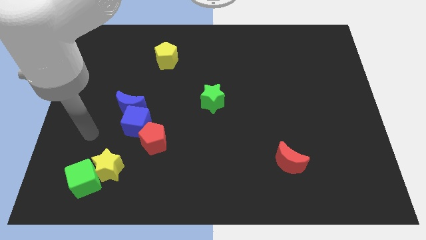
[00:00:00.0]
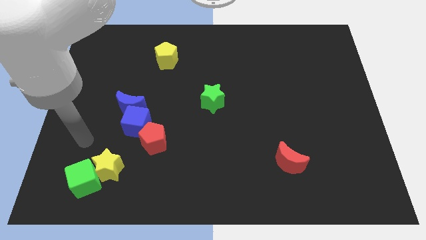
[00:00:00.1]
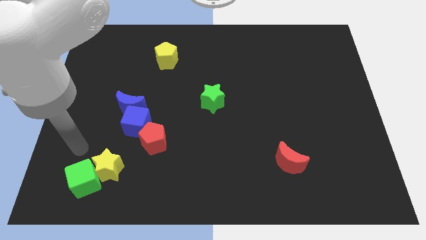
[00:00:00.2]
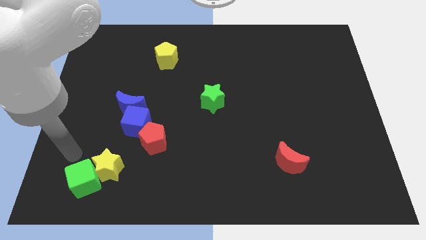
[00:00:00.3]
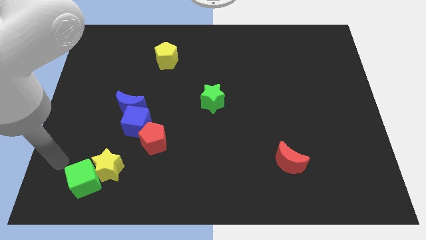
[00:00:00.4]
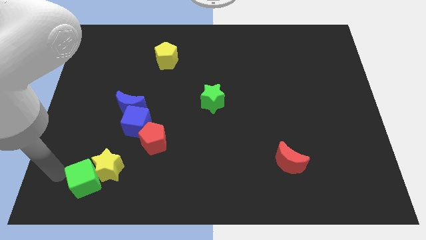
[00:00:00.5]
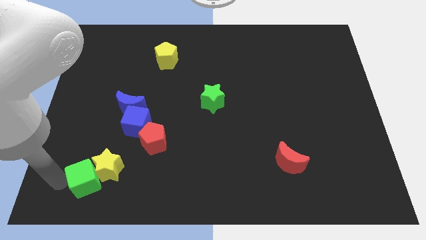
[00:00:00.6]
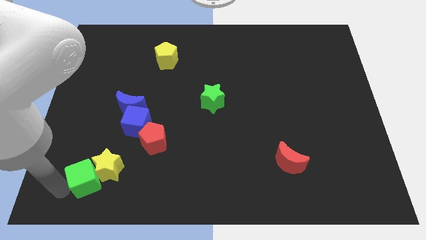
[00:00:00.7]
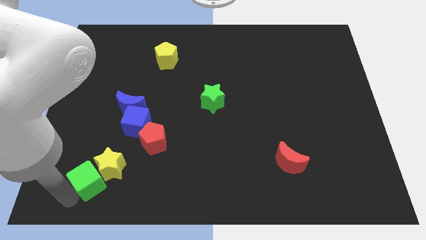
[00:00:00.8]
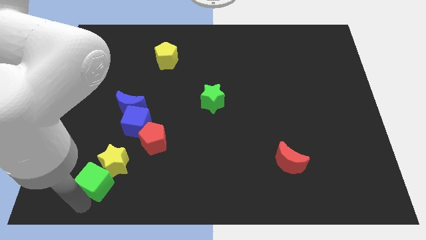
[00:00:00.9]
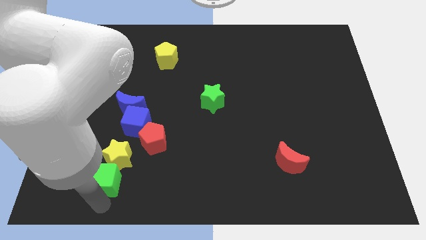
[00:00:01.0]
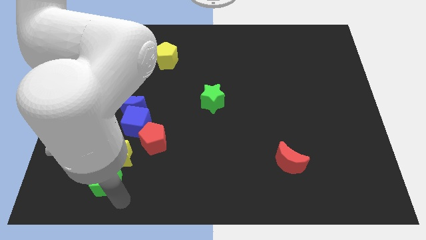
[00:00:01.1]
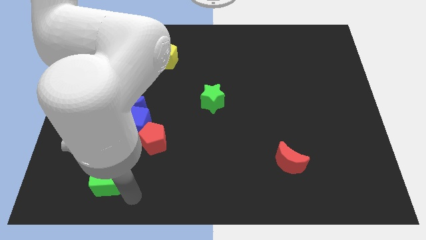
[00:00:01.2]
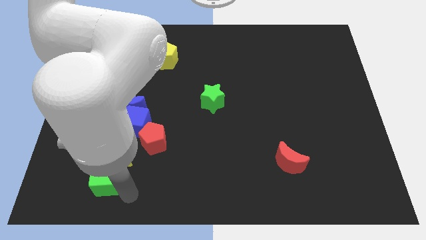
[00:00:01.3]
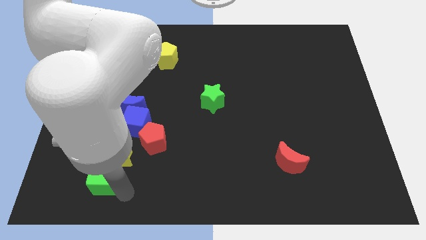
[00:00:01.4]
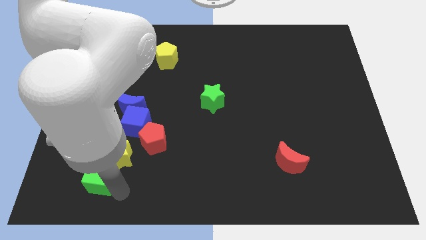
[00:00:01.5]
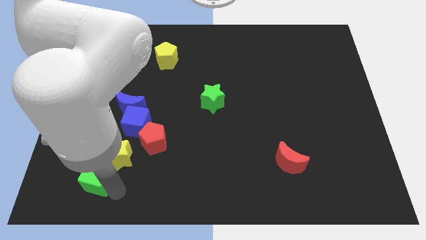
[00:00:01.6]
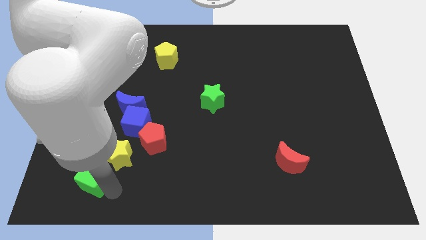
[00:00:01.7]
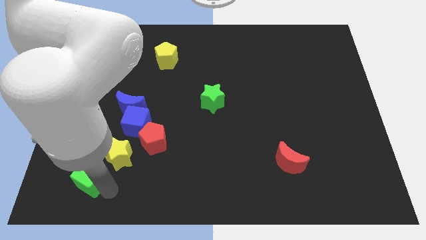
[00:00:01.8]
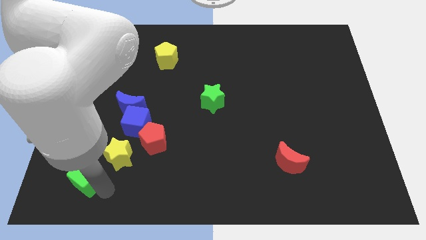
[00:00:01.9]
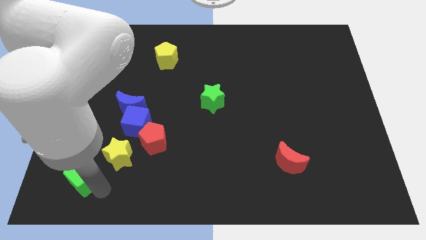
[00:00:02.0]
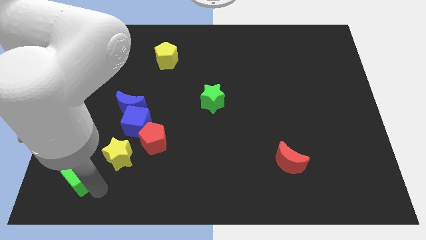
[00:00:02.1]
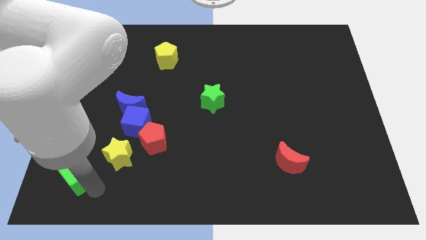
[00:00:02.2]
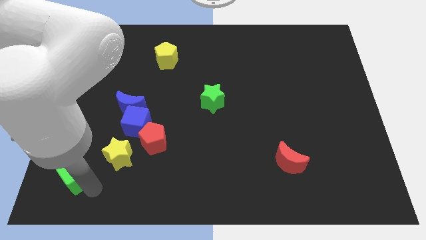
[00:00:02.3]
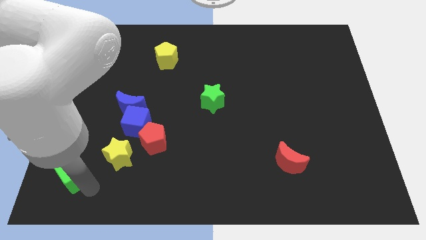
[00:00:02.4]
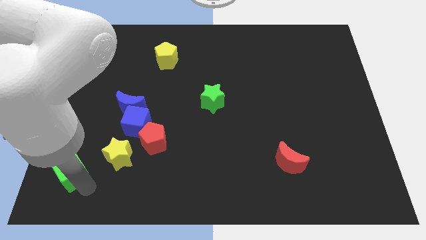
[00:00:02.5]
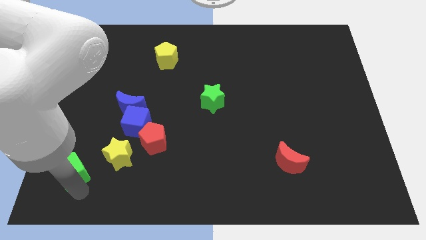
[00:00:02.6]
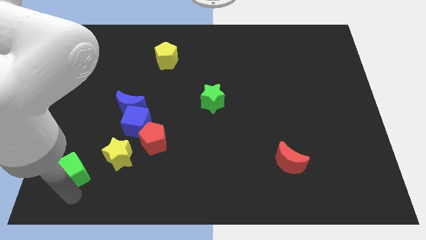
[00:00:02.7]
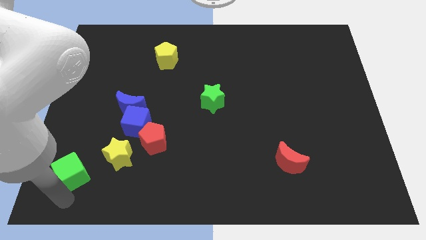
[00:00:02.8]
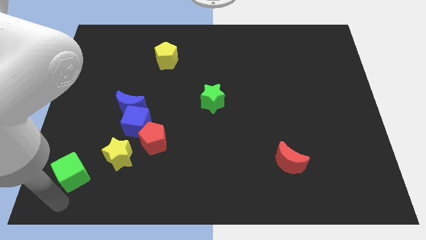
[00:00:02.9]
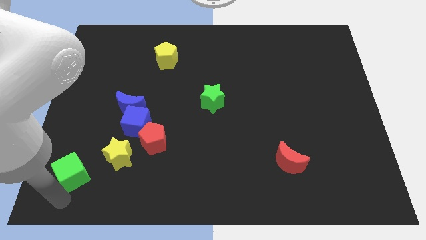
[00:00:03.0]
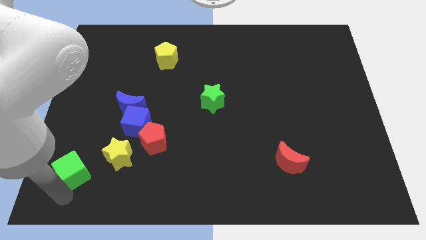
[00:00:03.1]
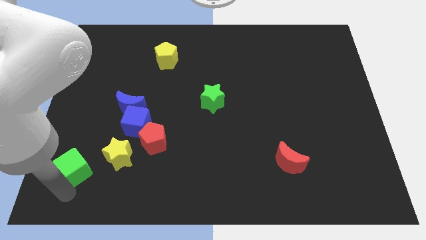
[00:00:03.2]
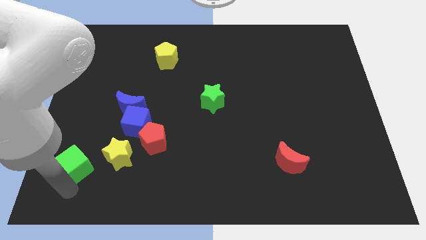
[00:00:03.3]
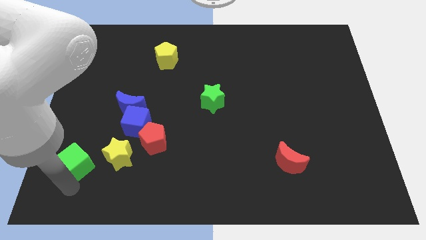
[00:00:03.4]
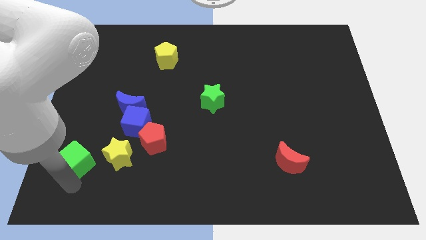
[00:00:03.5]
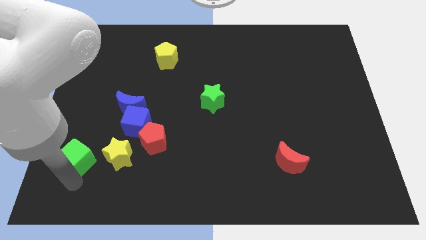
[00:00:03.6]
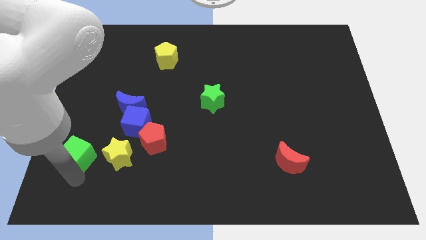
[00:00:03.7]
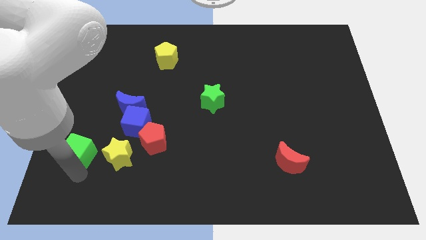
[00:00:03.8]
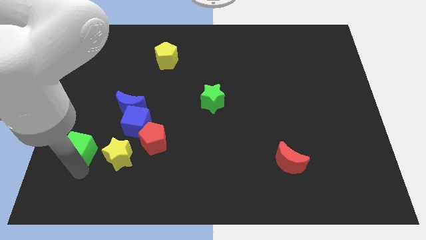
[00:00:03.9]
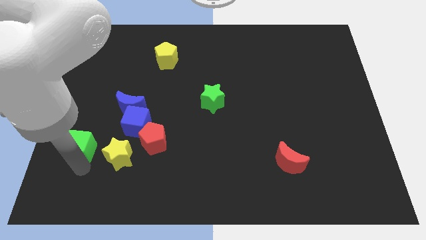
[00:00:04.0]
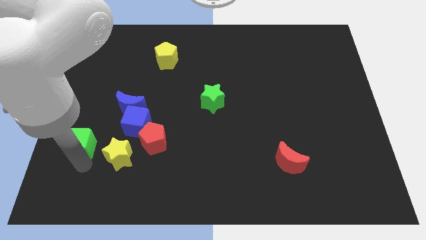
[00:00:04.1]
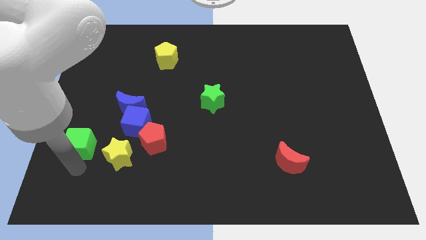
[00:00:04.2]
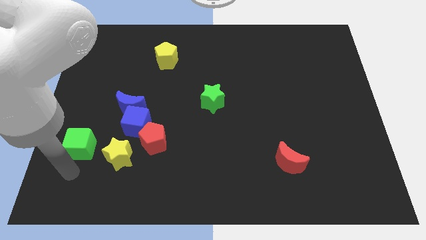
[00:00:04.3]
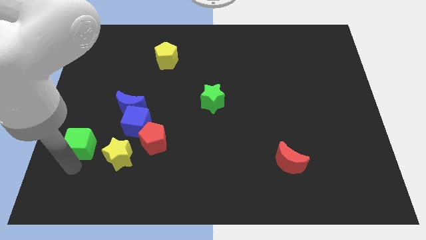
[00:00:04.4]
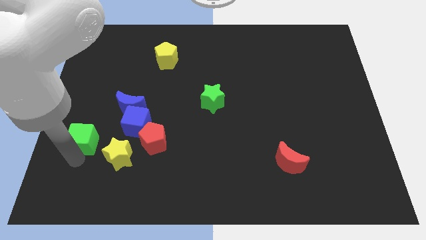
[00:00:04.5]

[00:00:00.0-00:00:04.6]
put the green cube left of the blue cube

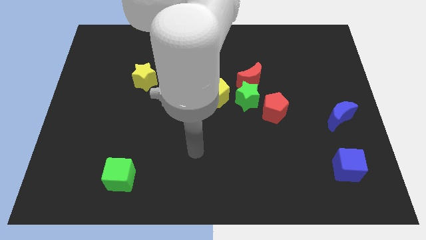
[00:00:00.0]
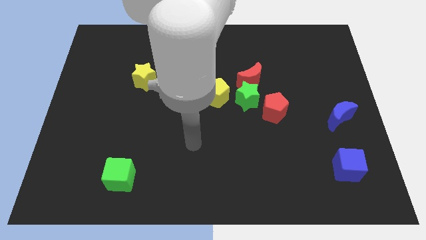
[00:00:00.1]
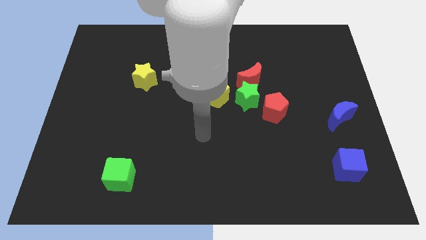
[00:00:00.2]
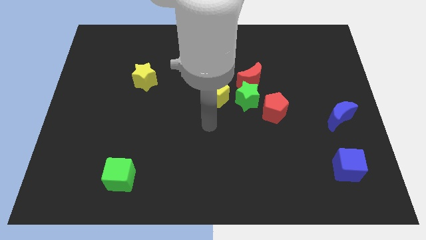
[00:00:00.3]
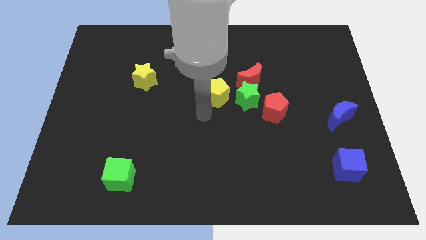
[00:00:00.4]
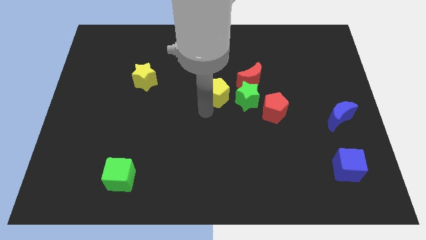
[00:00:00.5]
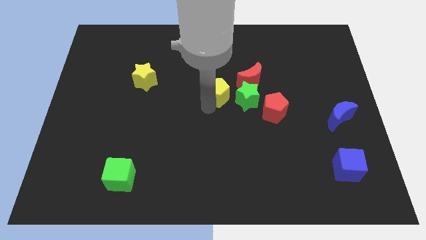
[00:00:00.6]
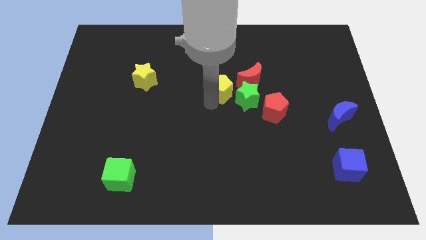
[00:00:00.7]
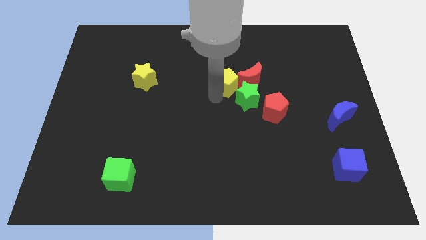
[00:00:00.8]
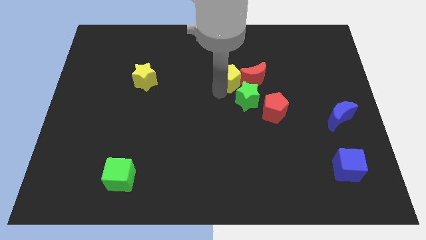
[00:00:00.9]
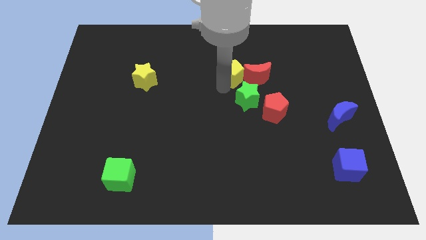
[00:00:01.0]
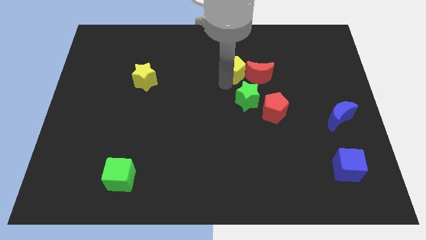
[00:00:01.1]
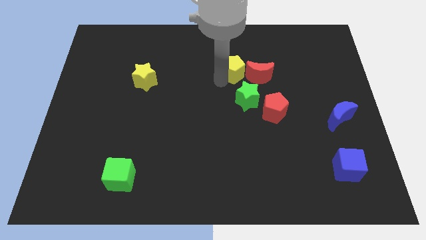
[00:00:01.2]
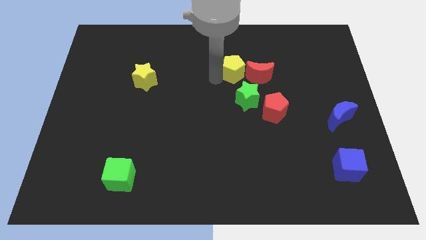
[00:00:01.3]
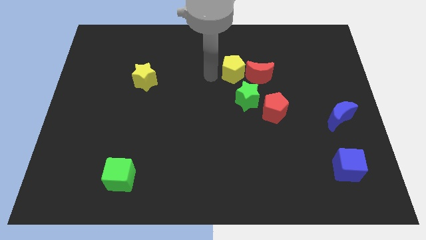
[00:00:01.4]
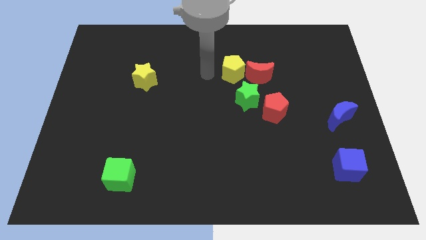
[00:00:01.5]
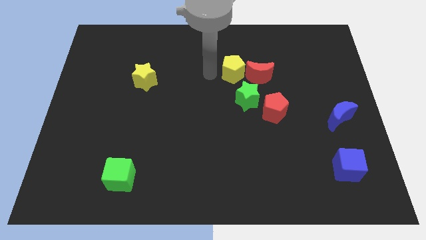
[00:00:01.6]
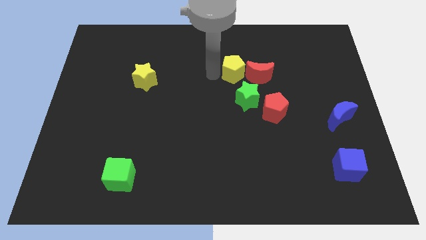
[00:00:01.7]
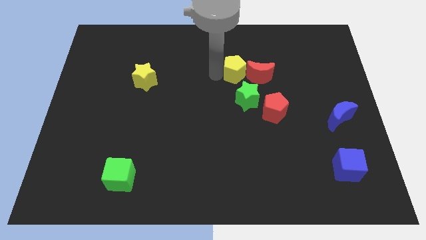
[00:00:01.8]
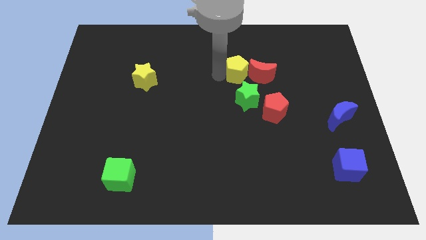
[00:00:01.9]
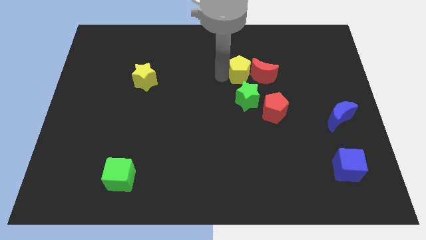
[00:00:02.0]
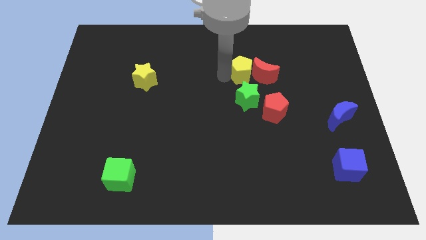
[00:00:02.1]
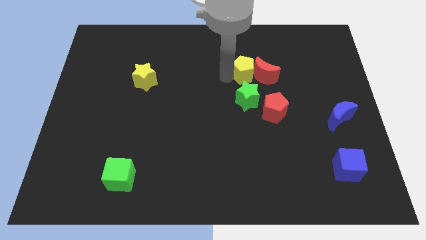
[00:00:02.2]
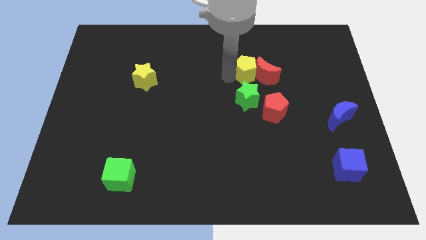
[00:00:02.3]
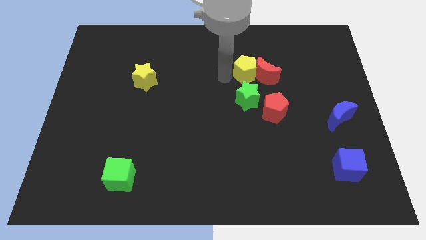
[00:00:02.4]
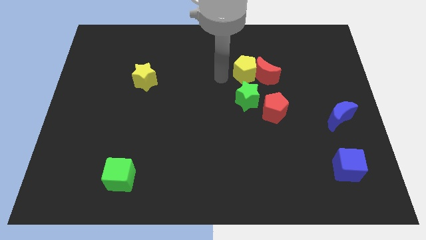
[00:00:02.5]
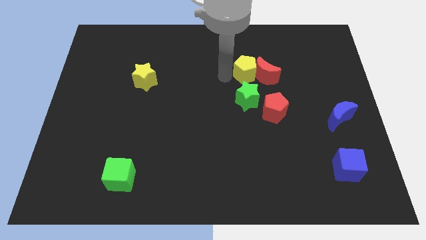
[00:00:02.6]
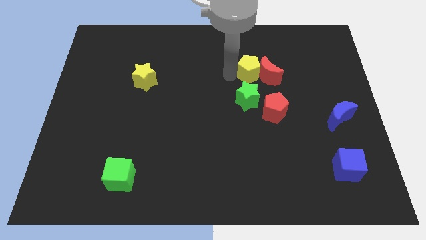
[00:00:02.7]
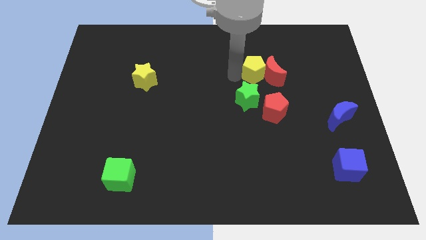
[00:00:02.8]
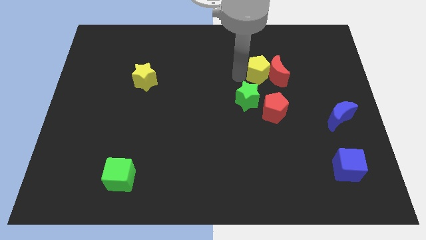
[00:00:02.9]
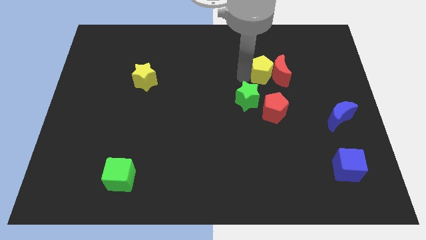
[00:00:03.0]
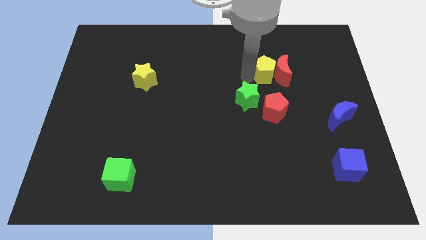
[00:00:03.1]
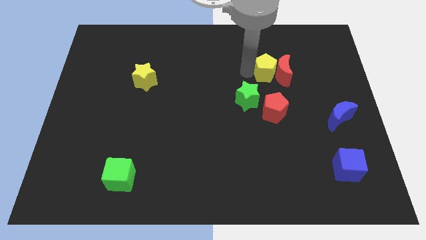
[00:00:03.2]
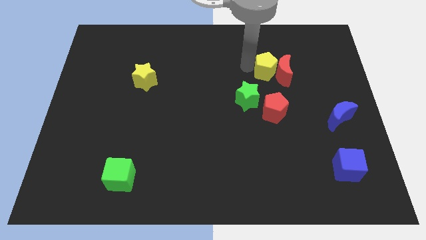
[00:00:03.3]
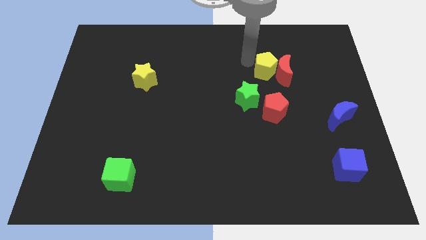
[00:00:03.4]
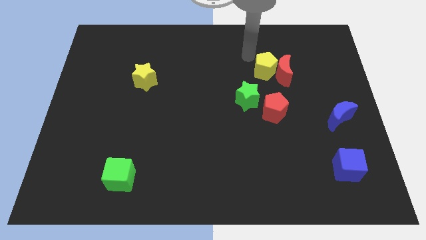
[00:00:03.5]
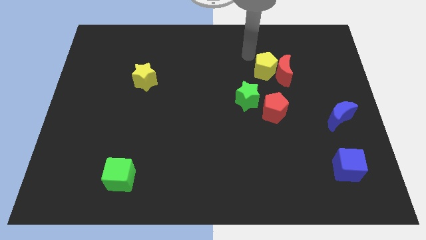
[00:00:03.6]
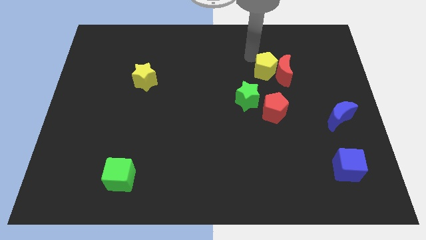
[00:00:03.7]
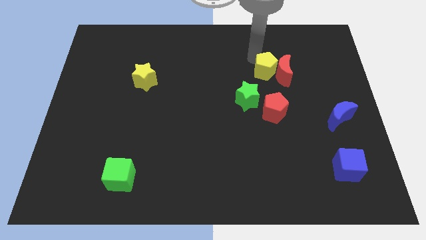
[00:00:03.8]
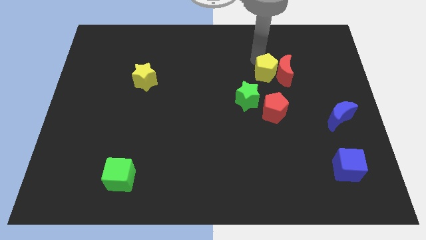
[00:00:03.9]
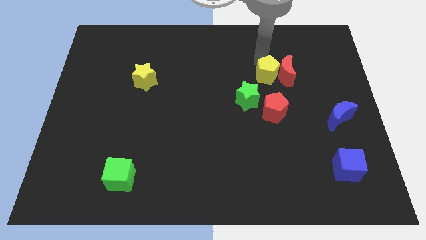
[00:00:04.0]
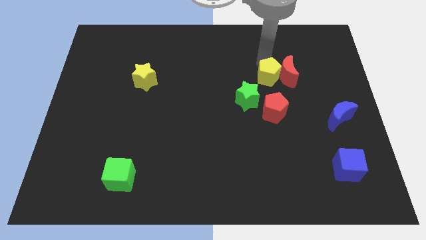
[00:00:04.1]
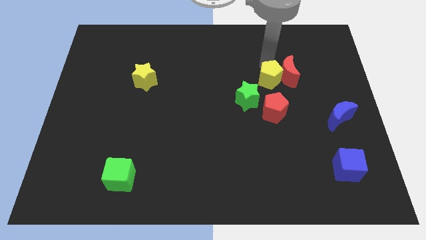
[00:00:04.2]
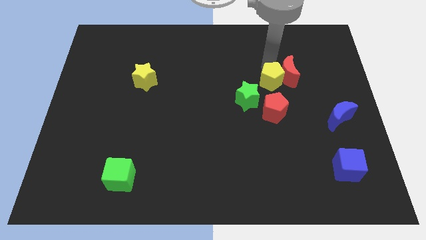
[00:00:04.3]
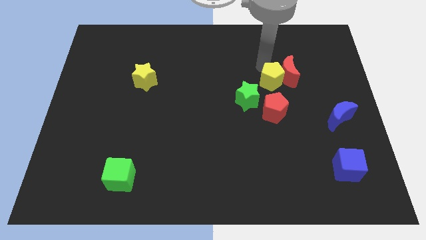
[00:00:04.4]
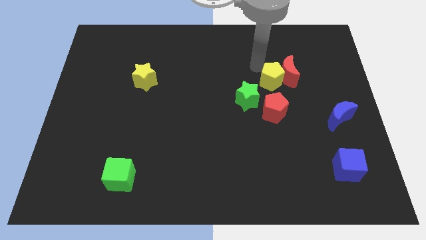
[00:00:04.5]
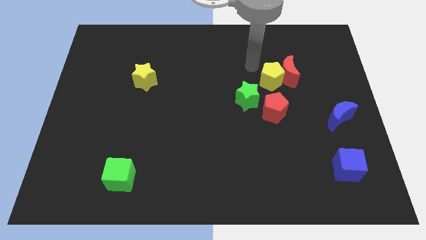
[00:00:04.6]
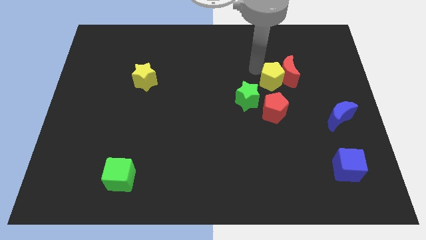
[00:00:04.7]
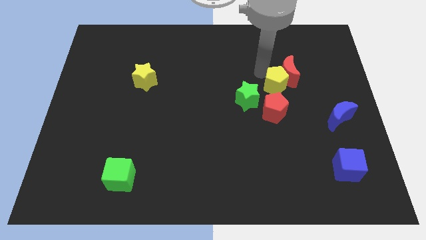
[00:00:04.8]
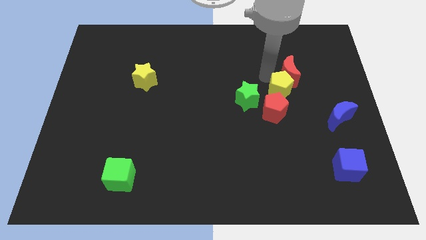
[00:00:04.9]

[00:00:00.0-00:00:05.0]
move the yellow pentagon to the top right of the red pentagon
